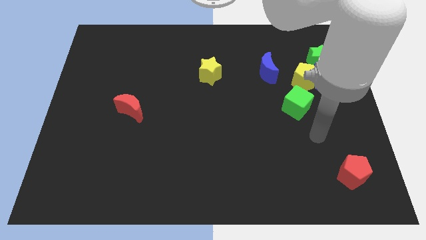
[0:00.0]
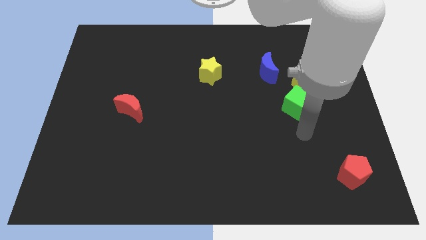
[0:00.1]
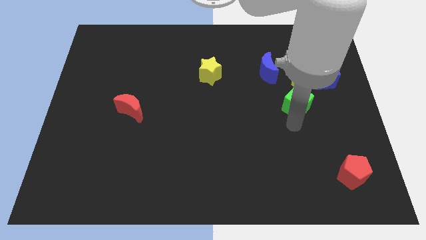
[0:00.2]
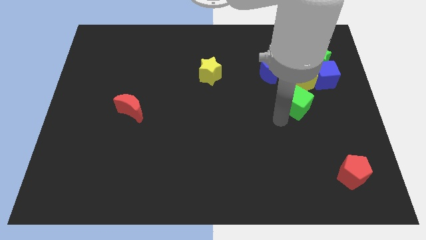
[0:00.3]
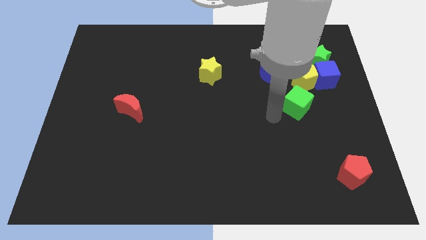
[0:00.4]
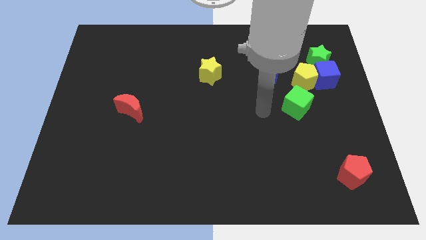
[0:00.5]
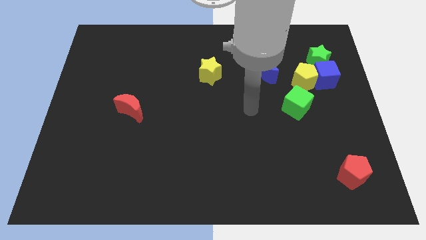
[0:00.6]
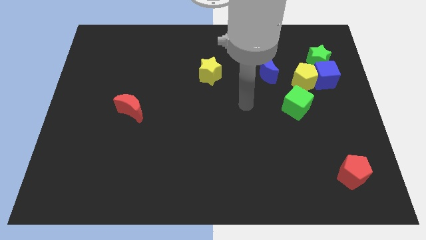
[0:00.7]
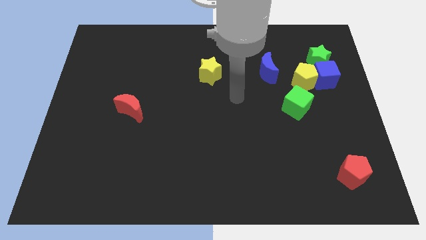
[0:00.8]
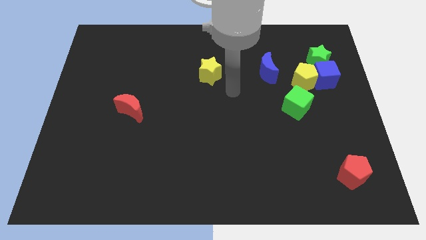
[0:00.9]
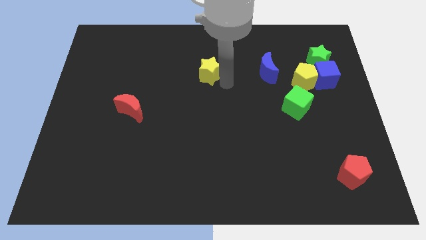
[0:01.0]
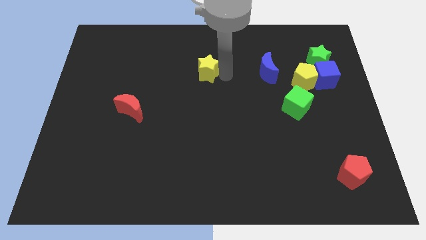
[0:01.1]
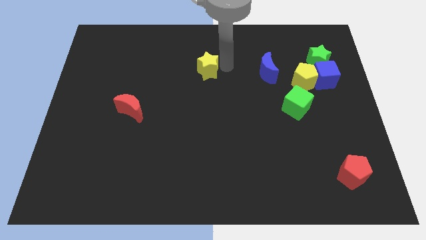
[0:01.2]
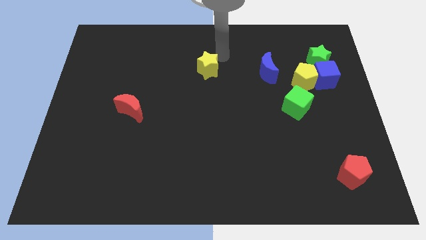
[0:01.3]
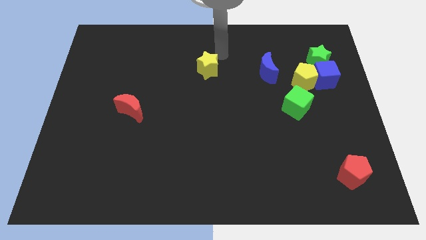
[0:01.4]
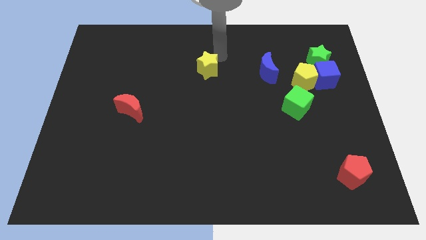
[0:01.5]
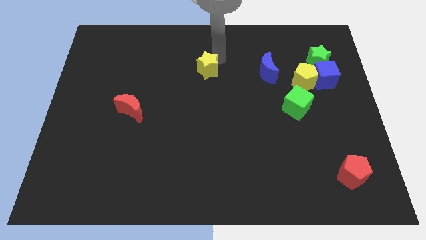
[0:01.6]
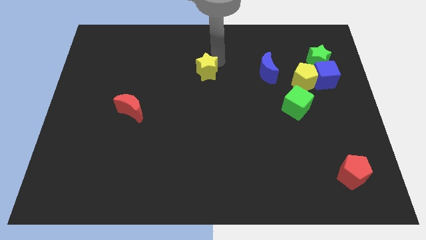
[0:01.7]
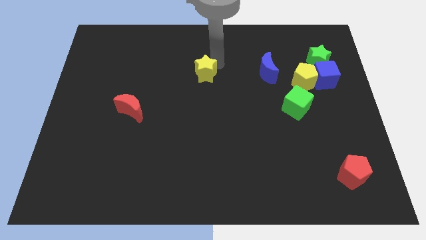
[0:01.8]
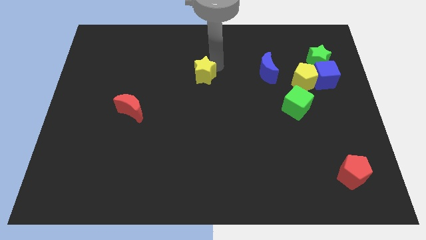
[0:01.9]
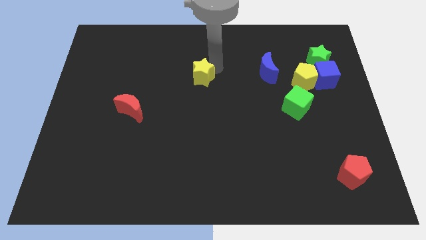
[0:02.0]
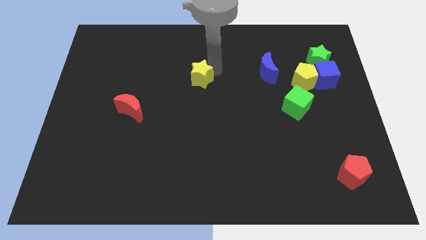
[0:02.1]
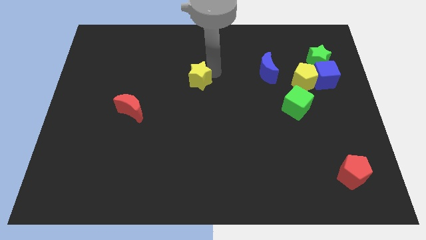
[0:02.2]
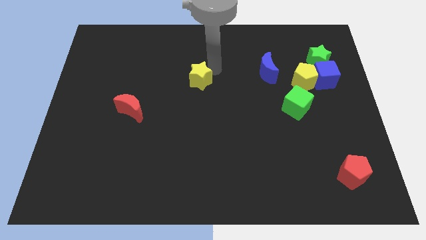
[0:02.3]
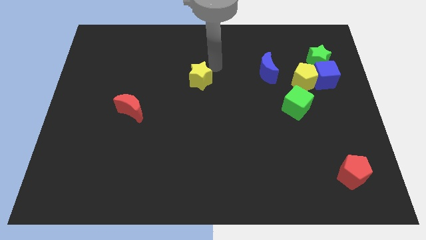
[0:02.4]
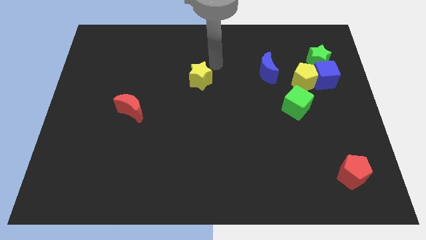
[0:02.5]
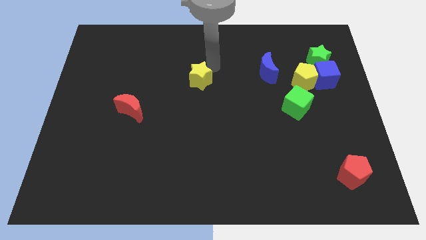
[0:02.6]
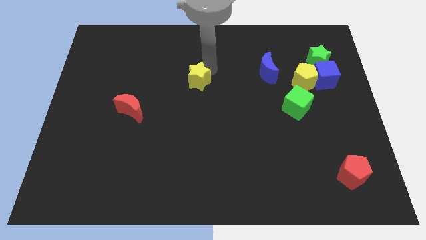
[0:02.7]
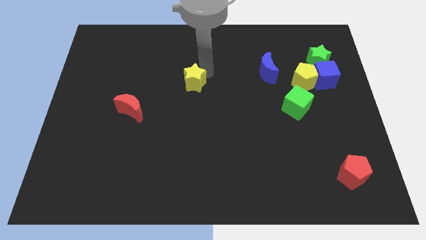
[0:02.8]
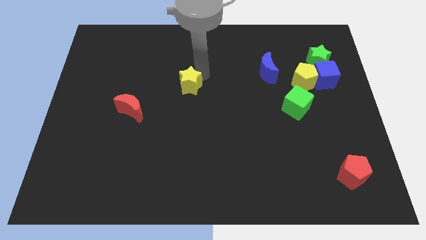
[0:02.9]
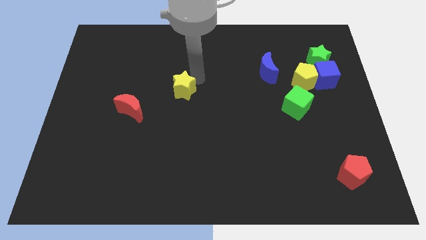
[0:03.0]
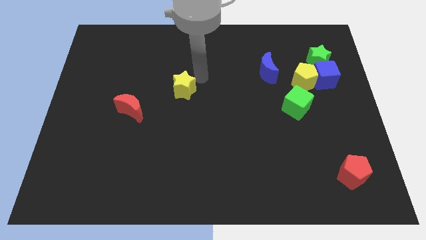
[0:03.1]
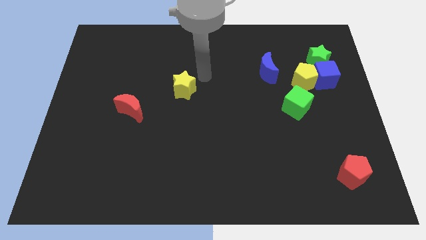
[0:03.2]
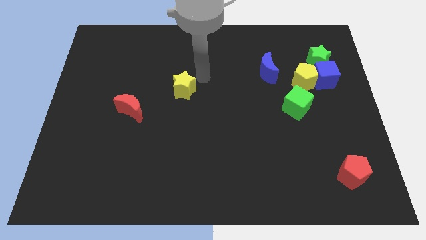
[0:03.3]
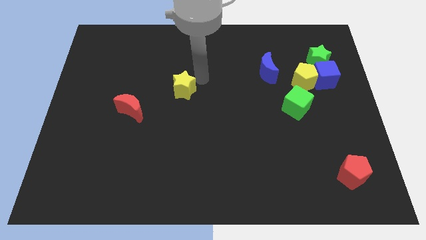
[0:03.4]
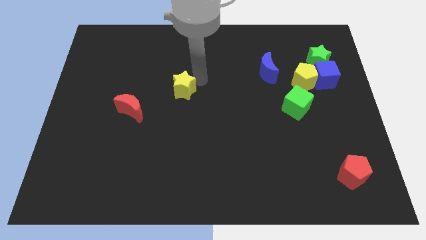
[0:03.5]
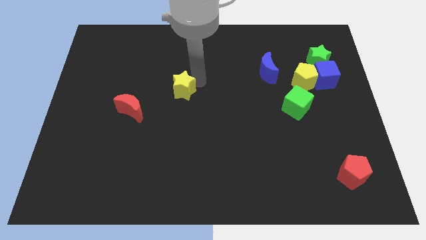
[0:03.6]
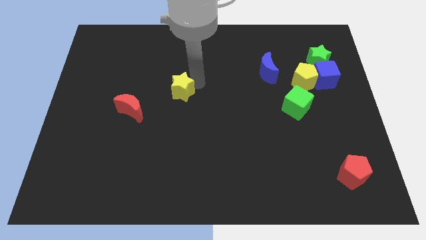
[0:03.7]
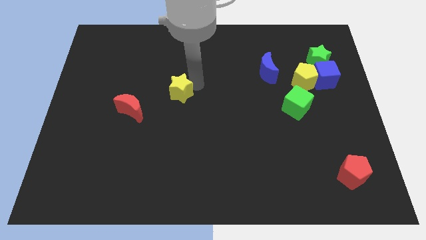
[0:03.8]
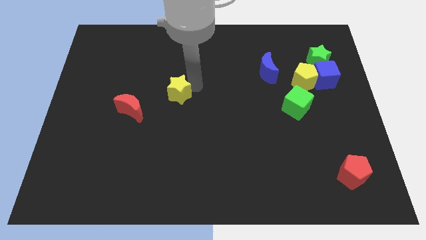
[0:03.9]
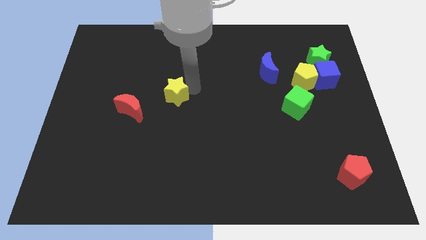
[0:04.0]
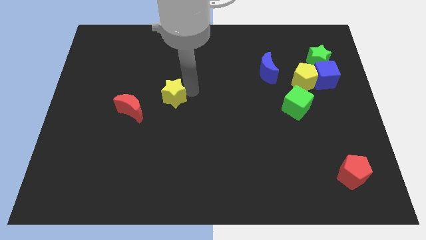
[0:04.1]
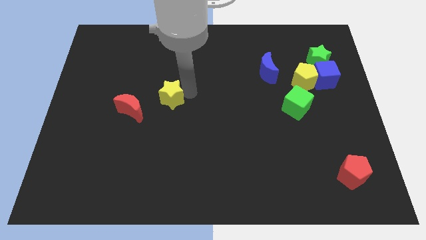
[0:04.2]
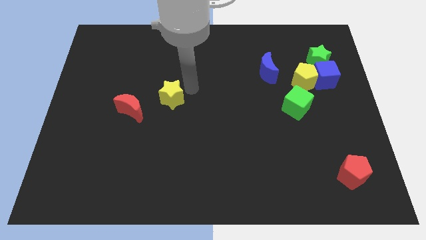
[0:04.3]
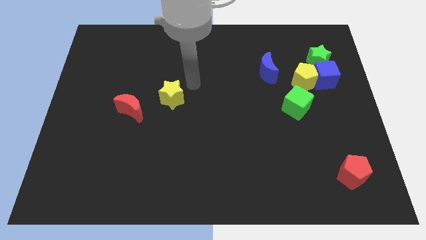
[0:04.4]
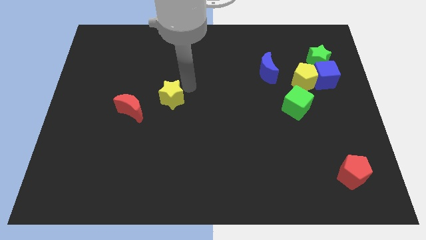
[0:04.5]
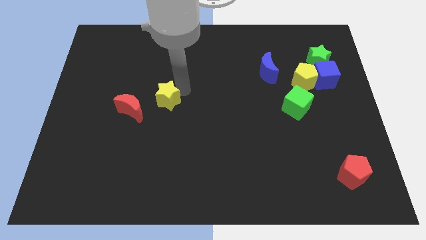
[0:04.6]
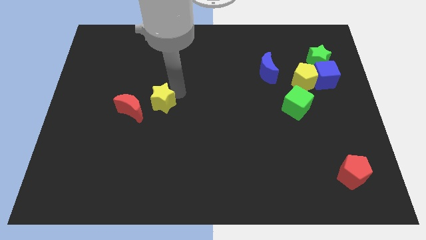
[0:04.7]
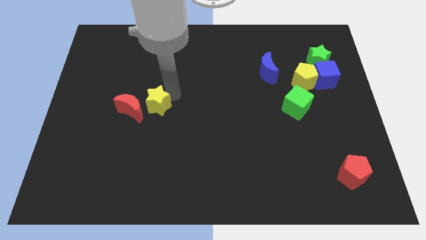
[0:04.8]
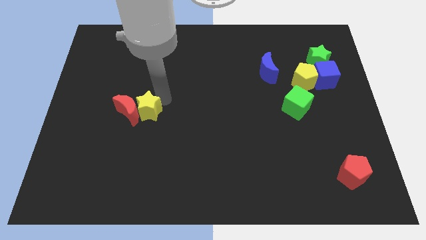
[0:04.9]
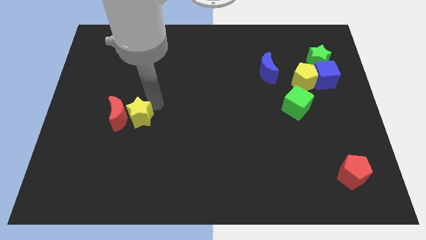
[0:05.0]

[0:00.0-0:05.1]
slide the yellow star down and to the left

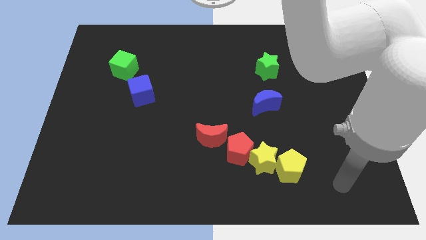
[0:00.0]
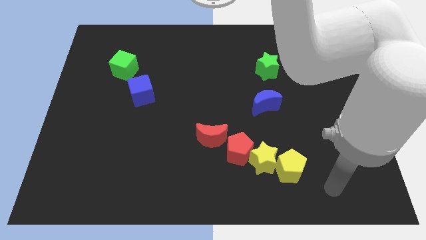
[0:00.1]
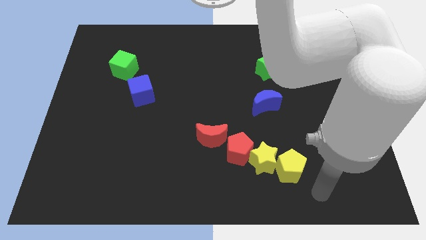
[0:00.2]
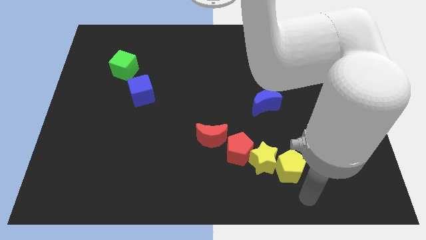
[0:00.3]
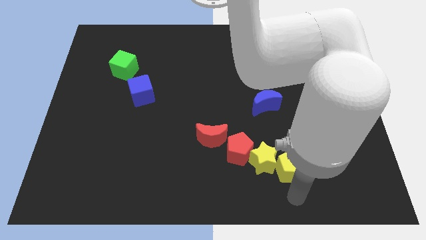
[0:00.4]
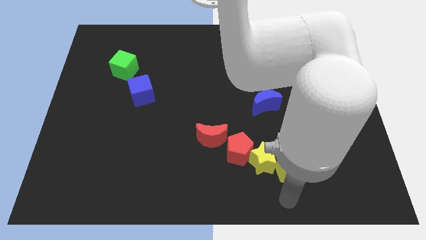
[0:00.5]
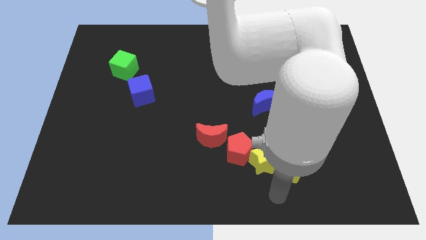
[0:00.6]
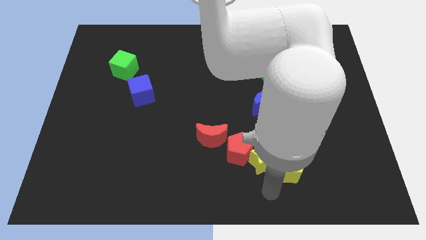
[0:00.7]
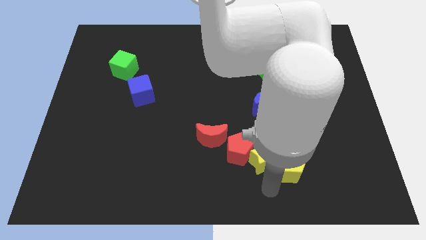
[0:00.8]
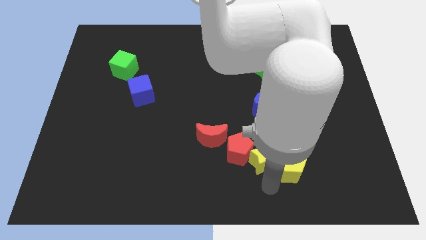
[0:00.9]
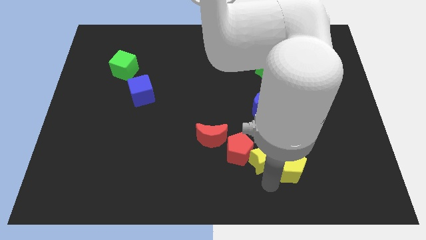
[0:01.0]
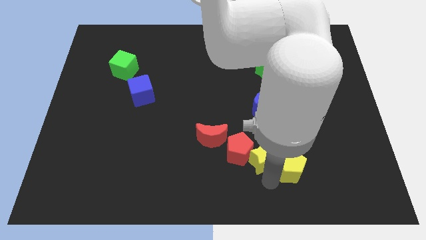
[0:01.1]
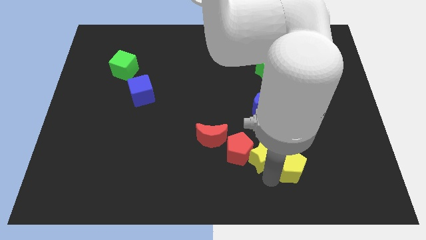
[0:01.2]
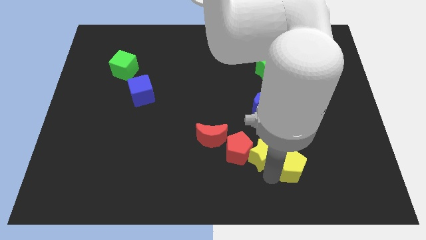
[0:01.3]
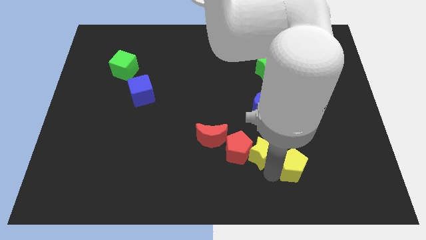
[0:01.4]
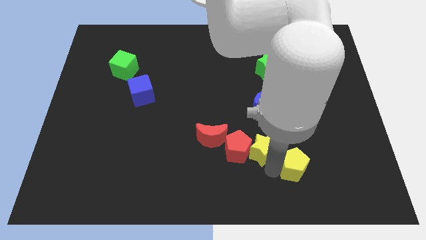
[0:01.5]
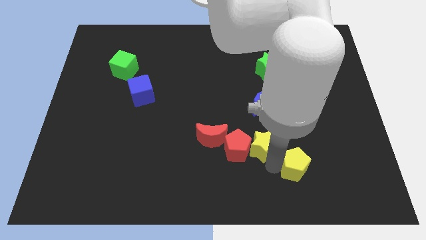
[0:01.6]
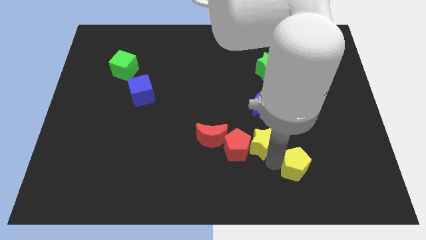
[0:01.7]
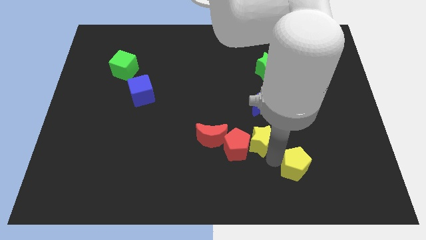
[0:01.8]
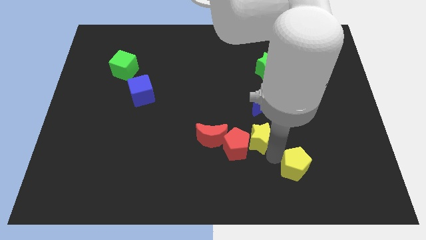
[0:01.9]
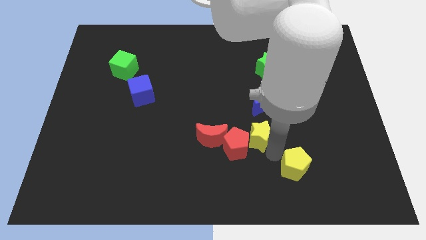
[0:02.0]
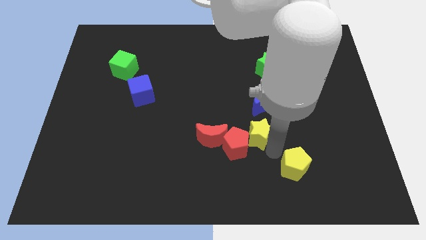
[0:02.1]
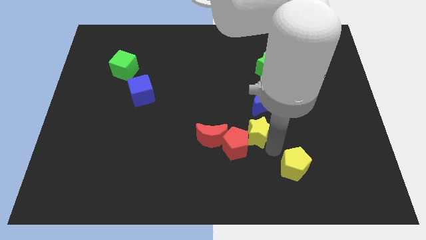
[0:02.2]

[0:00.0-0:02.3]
push the yellow star somewhat upwards

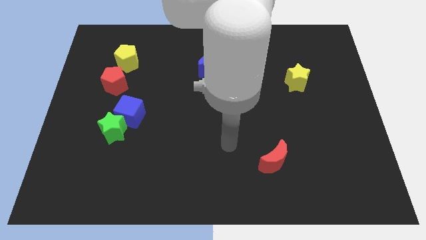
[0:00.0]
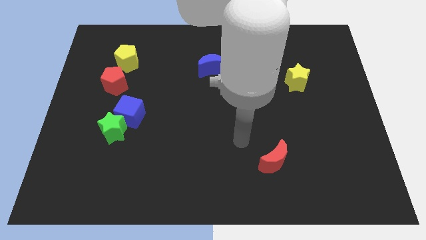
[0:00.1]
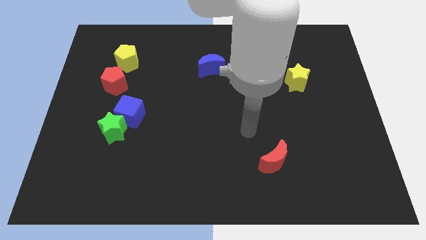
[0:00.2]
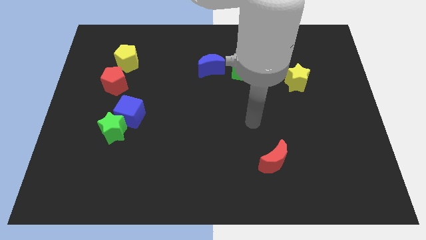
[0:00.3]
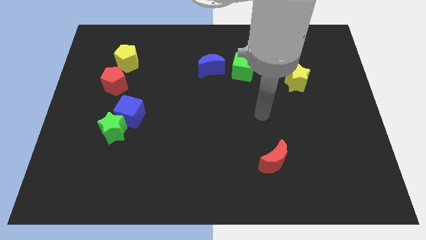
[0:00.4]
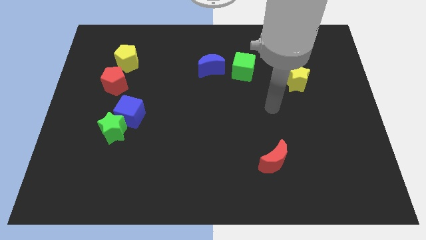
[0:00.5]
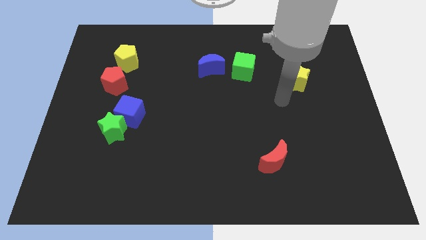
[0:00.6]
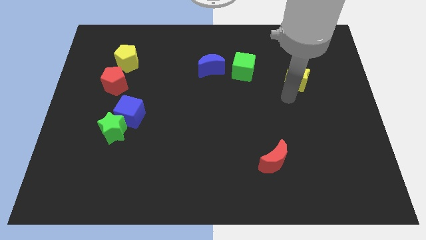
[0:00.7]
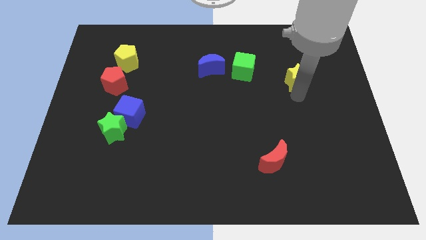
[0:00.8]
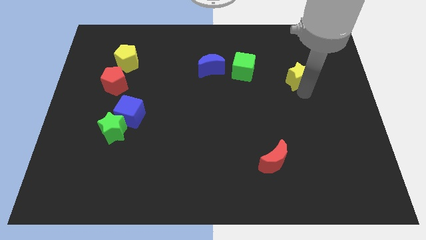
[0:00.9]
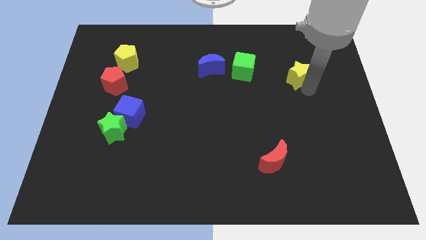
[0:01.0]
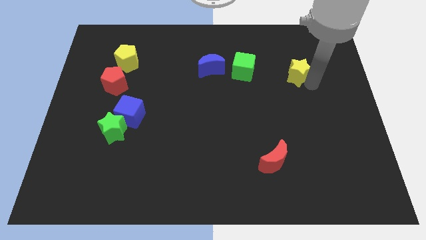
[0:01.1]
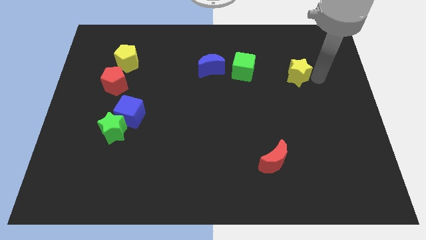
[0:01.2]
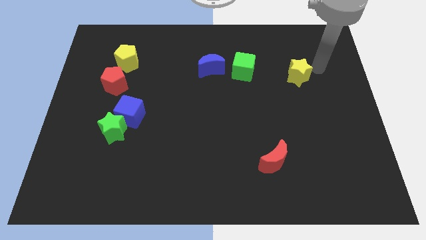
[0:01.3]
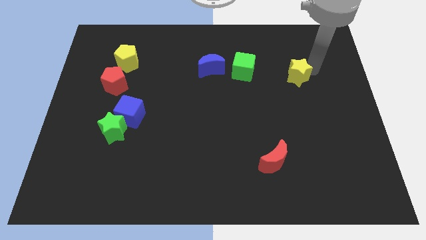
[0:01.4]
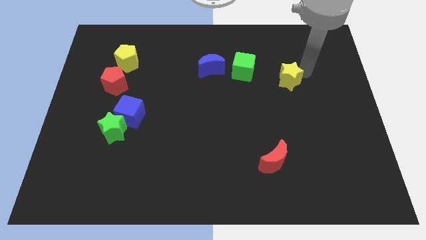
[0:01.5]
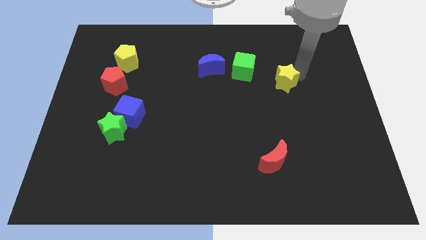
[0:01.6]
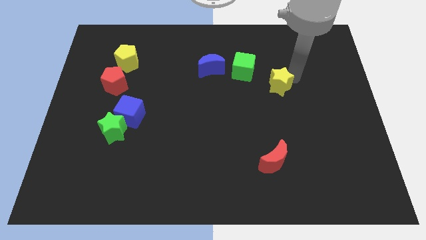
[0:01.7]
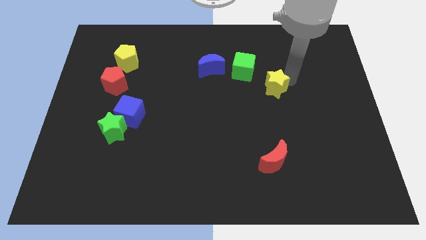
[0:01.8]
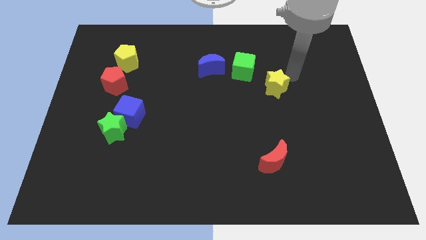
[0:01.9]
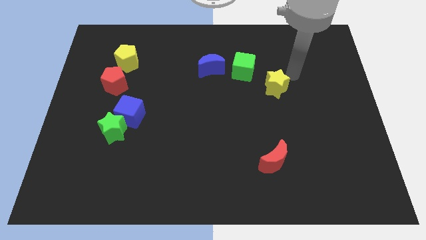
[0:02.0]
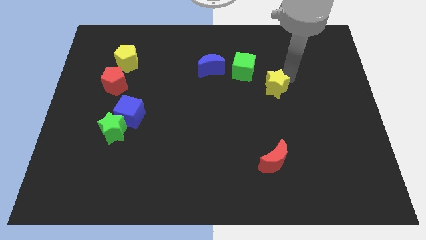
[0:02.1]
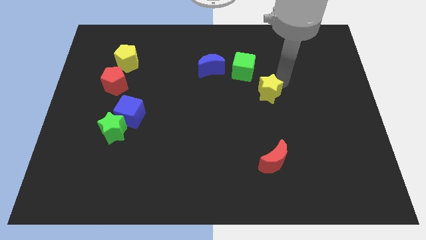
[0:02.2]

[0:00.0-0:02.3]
push the yellow star a little bit down and to the left
